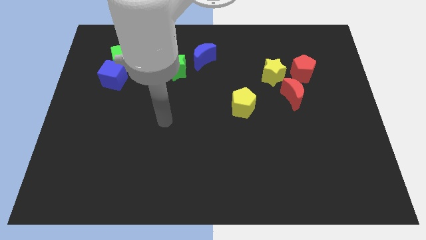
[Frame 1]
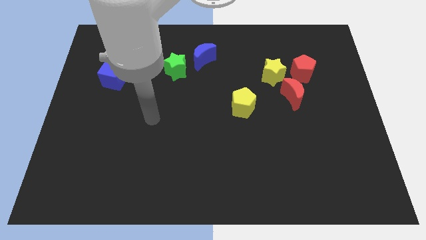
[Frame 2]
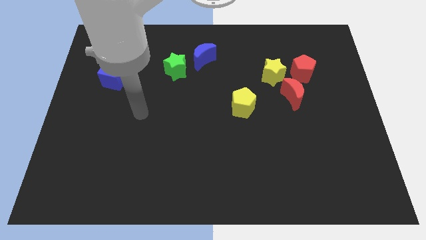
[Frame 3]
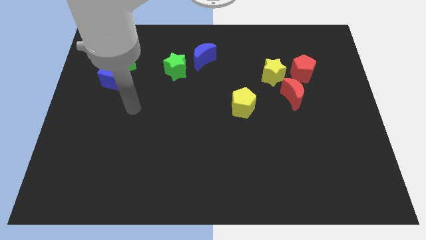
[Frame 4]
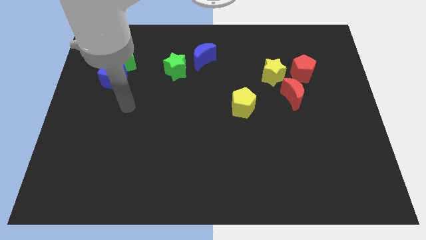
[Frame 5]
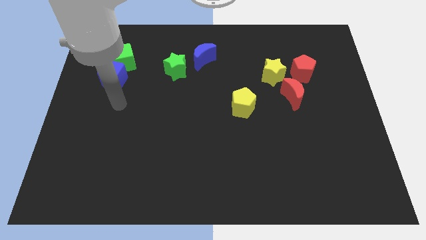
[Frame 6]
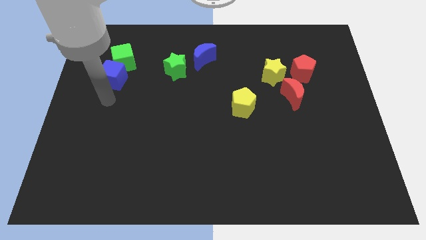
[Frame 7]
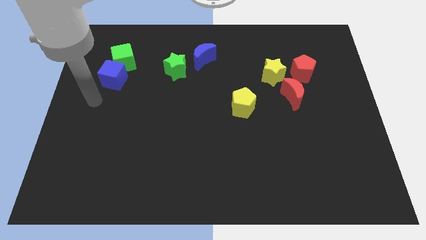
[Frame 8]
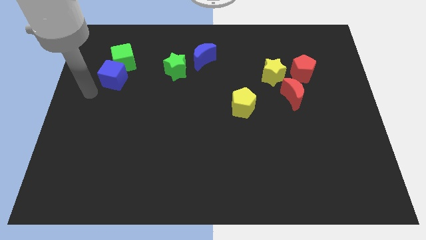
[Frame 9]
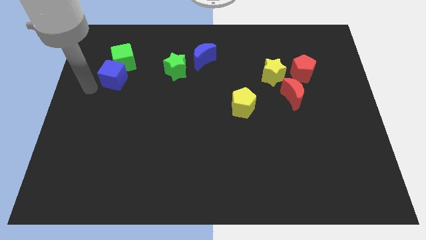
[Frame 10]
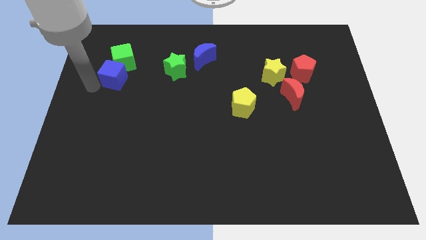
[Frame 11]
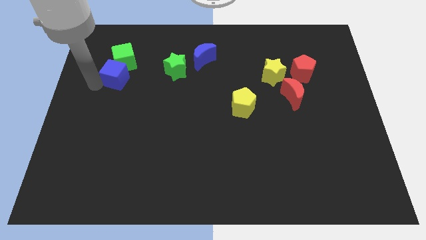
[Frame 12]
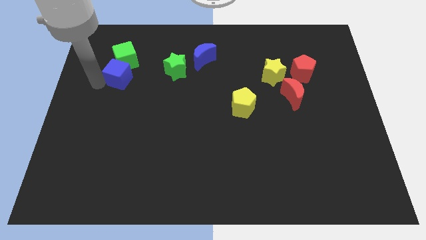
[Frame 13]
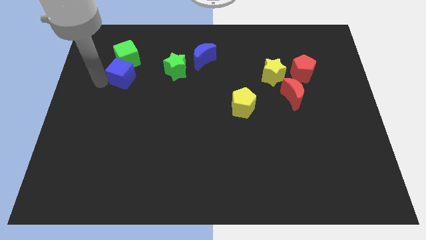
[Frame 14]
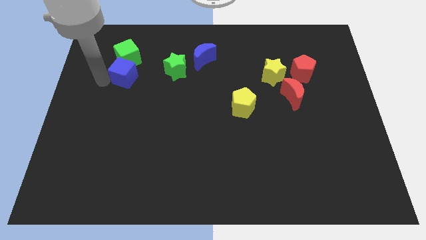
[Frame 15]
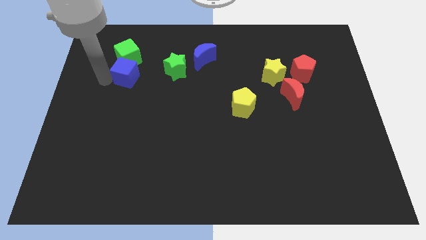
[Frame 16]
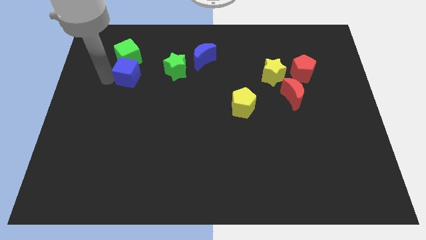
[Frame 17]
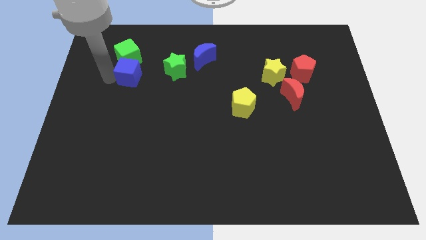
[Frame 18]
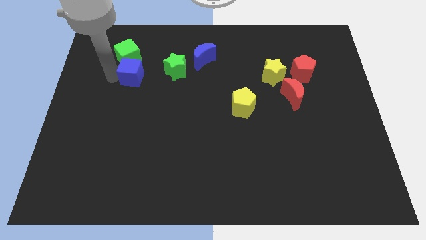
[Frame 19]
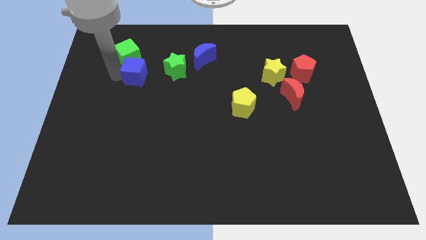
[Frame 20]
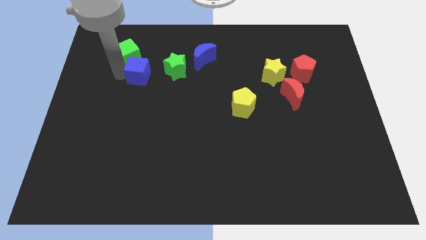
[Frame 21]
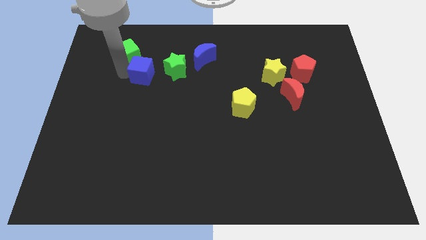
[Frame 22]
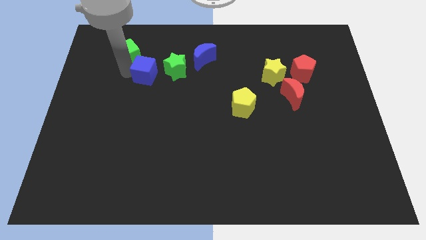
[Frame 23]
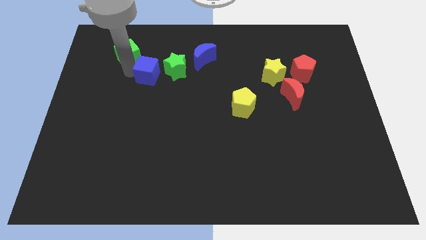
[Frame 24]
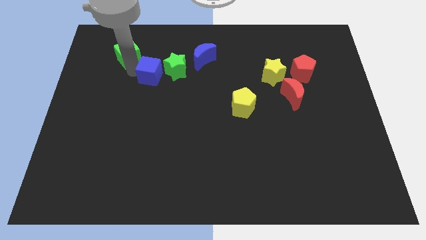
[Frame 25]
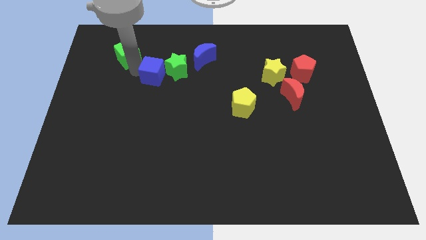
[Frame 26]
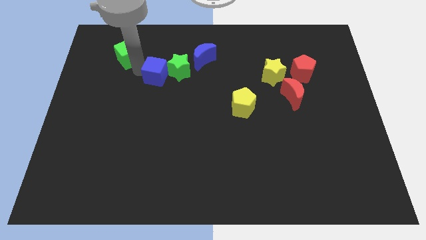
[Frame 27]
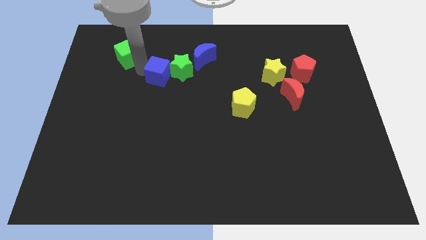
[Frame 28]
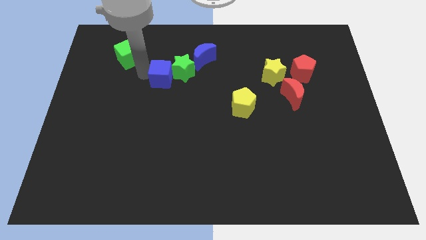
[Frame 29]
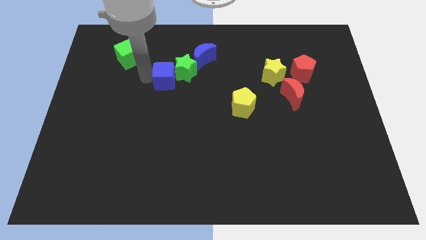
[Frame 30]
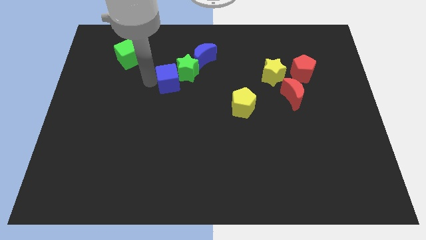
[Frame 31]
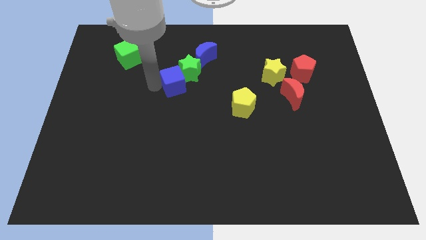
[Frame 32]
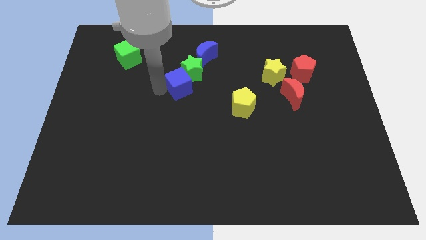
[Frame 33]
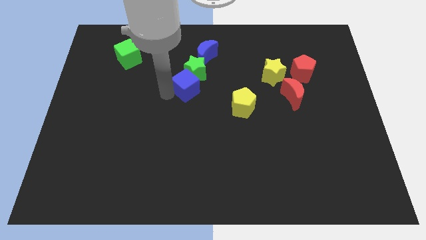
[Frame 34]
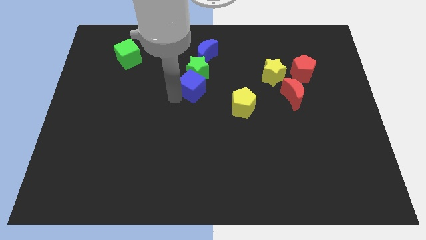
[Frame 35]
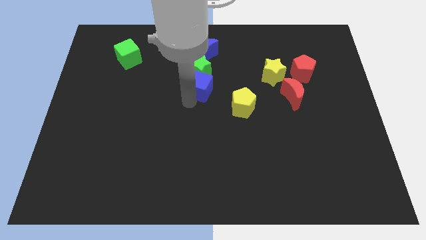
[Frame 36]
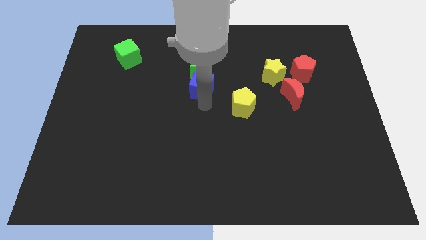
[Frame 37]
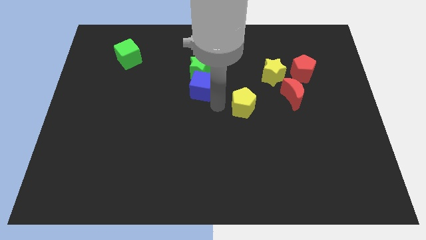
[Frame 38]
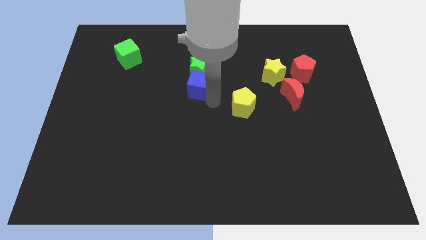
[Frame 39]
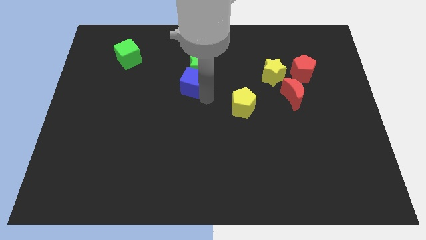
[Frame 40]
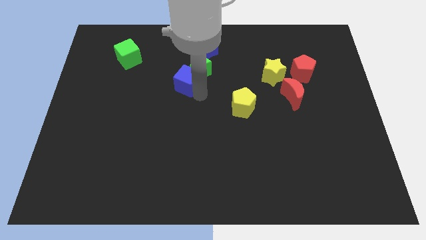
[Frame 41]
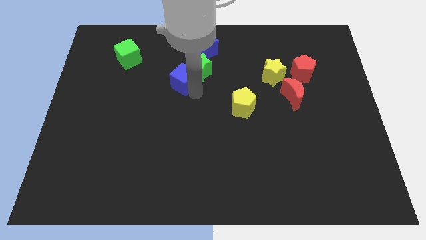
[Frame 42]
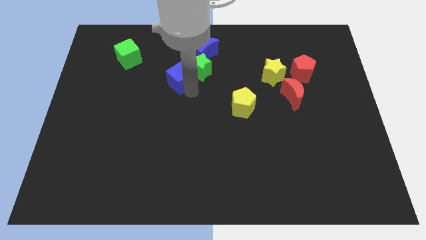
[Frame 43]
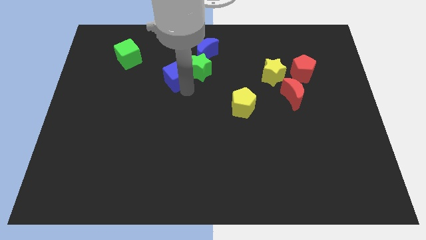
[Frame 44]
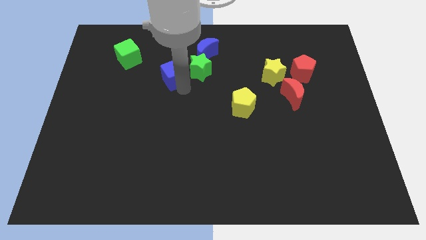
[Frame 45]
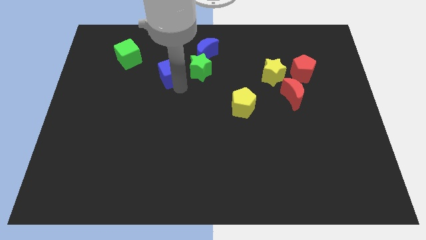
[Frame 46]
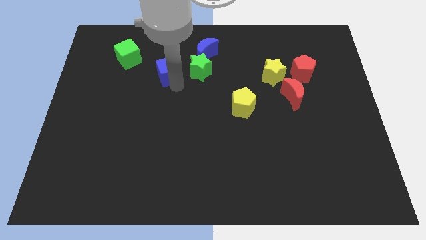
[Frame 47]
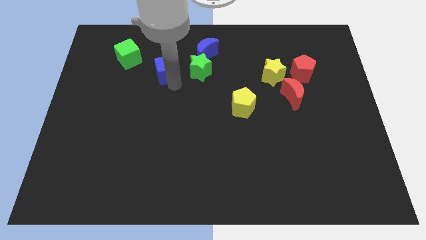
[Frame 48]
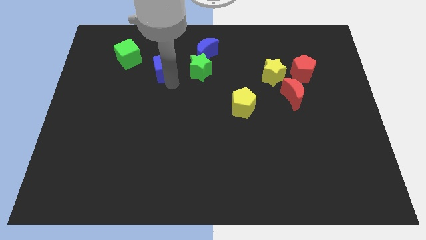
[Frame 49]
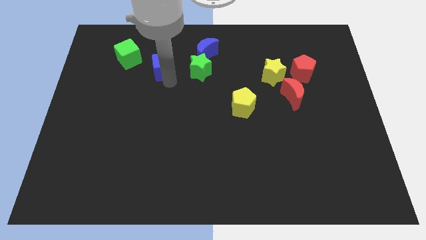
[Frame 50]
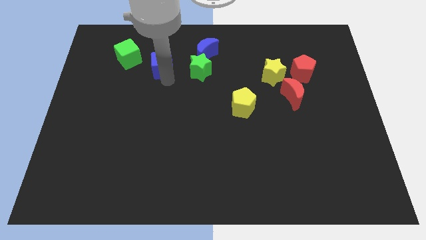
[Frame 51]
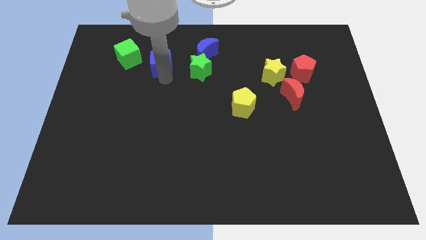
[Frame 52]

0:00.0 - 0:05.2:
push the blue cube left of the blue moon

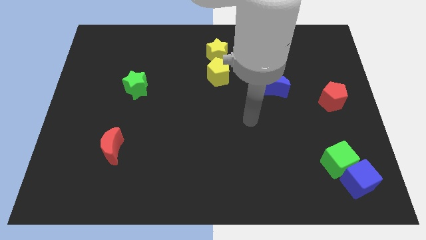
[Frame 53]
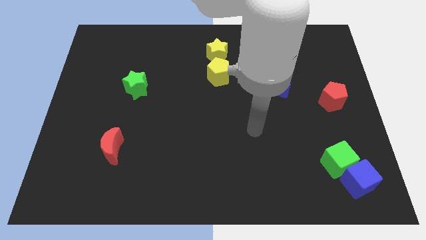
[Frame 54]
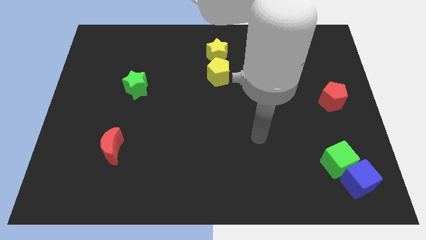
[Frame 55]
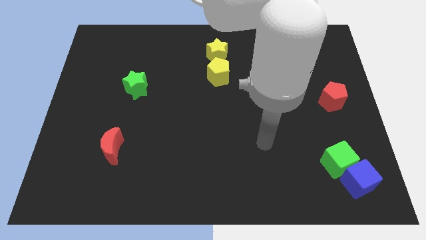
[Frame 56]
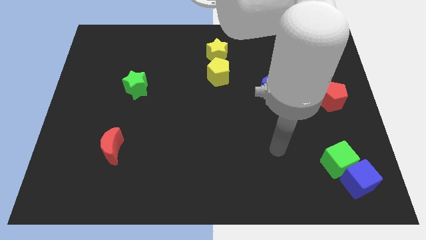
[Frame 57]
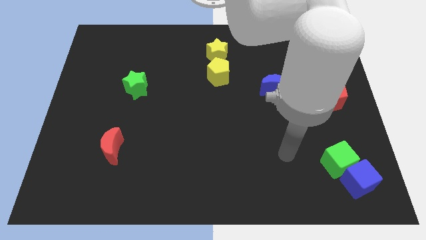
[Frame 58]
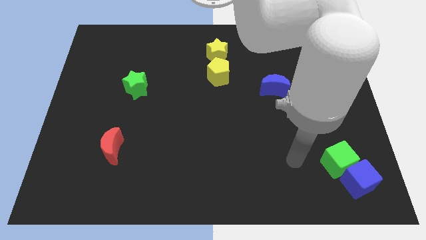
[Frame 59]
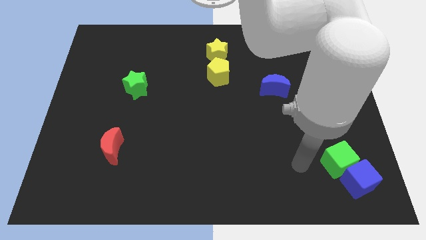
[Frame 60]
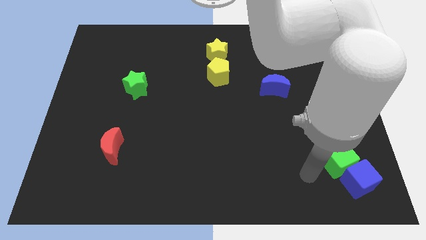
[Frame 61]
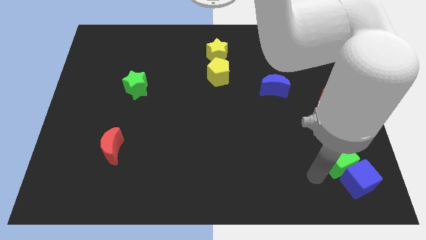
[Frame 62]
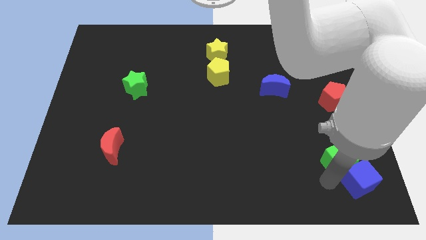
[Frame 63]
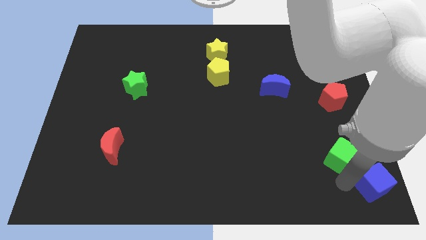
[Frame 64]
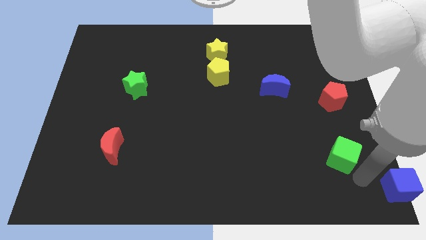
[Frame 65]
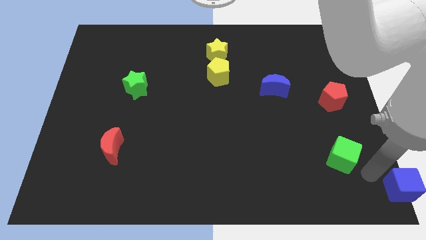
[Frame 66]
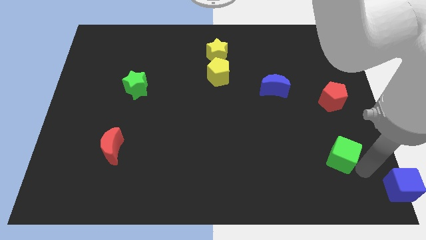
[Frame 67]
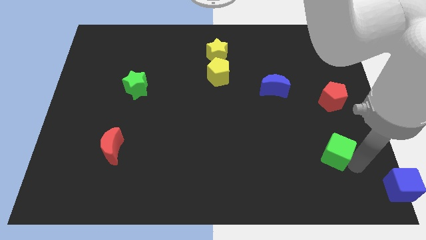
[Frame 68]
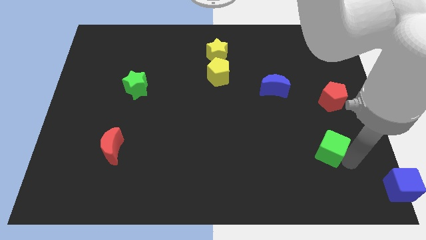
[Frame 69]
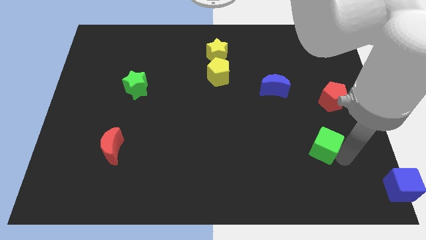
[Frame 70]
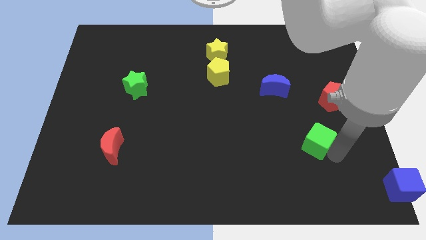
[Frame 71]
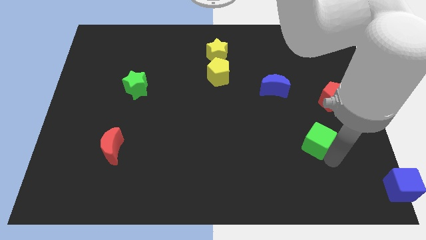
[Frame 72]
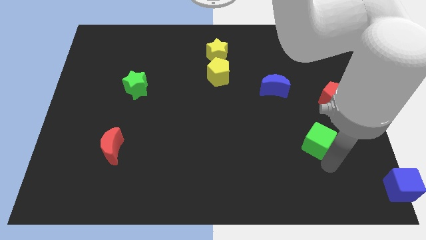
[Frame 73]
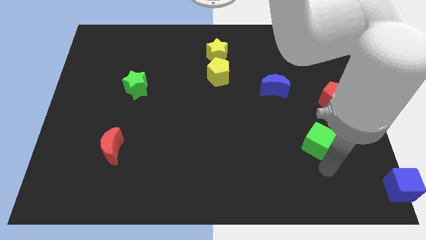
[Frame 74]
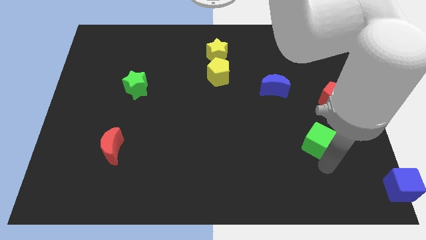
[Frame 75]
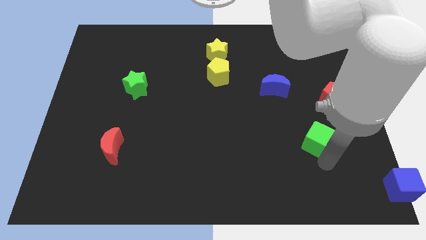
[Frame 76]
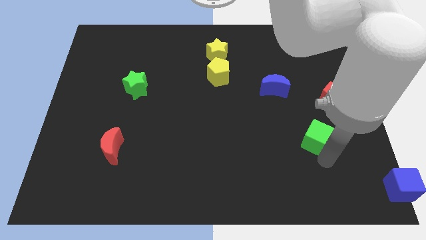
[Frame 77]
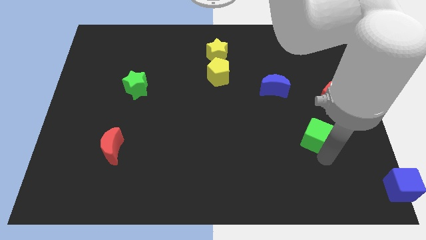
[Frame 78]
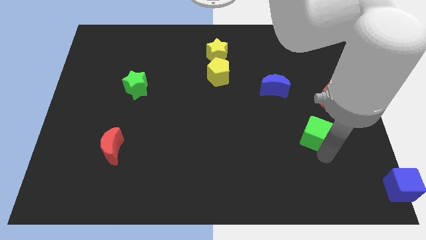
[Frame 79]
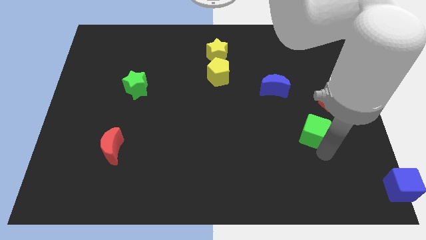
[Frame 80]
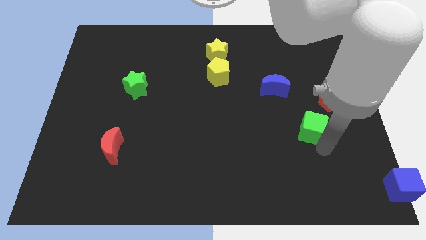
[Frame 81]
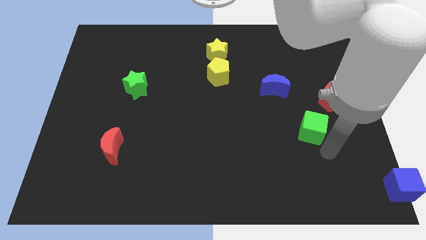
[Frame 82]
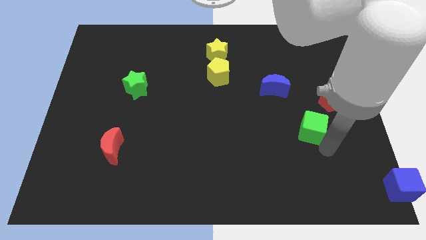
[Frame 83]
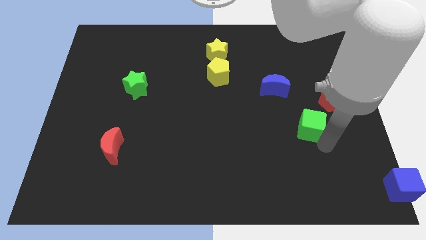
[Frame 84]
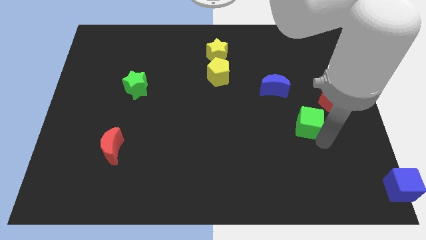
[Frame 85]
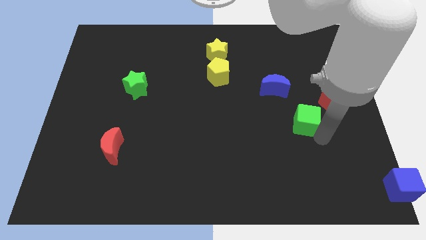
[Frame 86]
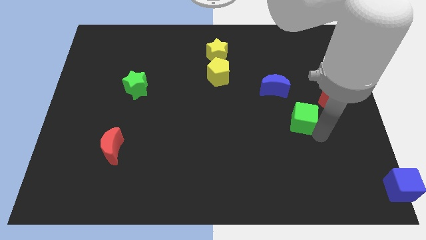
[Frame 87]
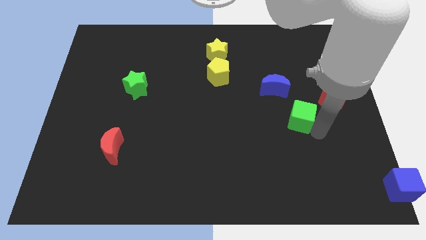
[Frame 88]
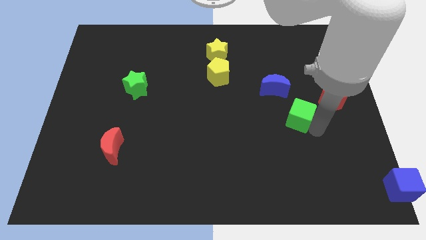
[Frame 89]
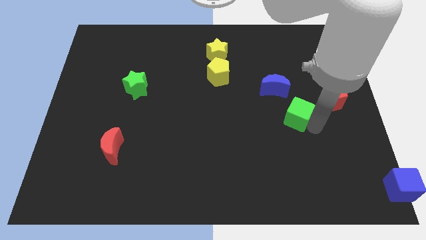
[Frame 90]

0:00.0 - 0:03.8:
move the green cube just left of the red pentagon
